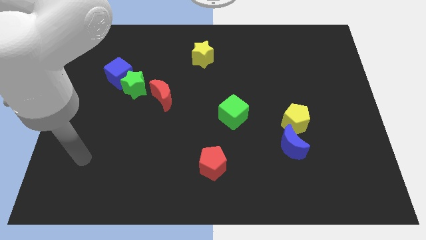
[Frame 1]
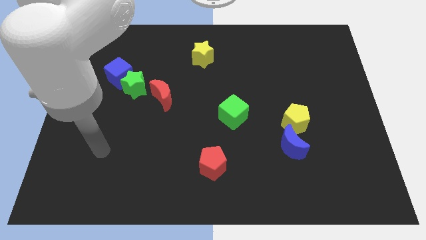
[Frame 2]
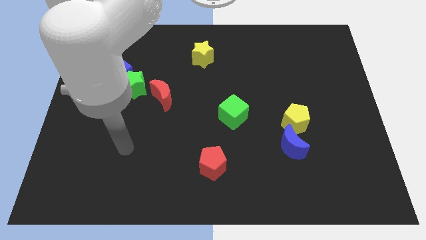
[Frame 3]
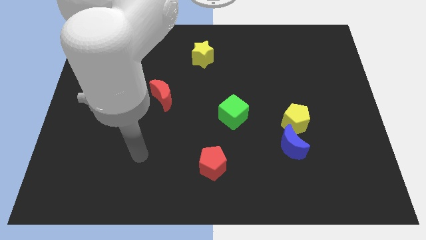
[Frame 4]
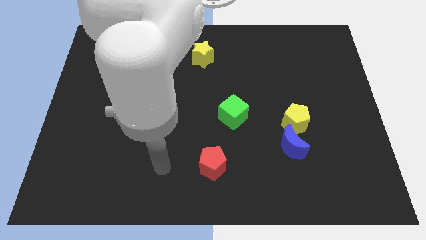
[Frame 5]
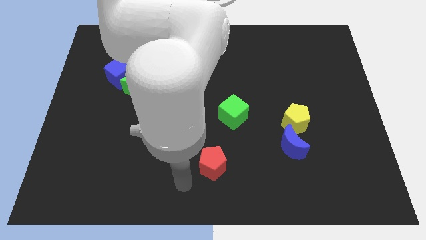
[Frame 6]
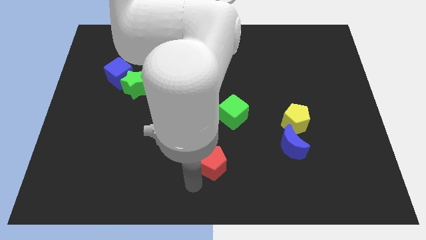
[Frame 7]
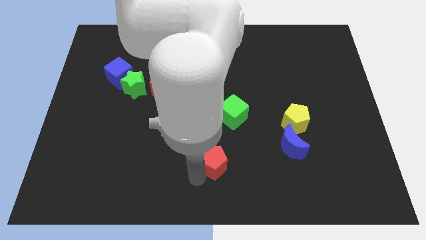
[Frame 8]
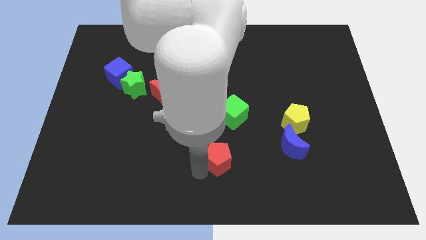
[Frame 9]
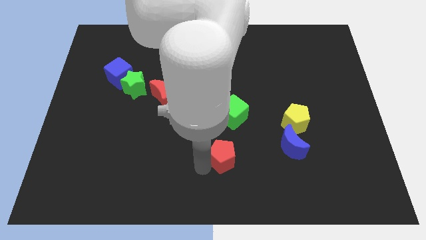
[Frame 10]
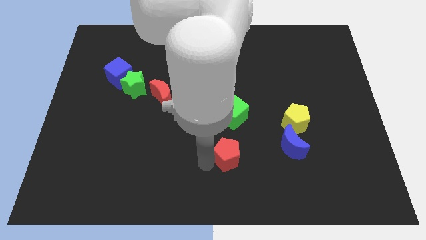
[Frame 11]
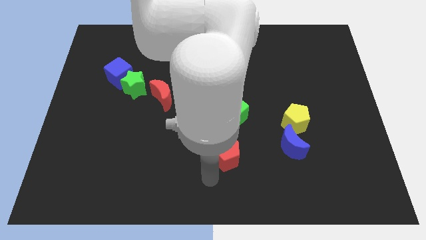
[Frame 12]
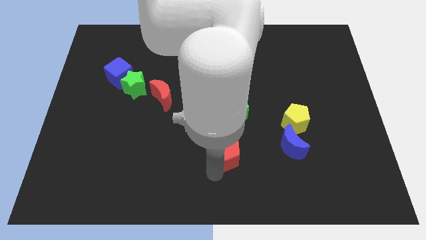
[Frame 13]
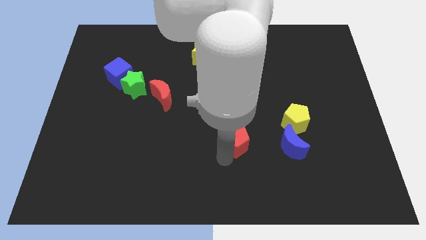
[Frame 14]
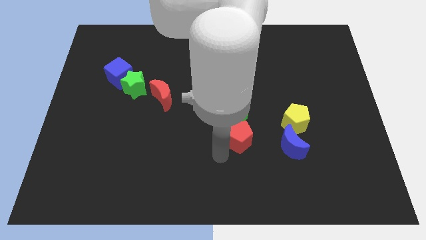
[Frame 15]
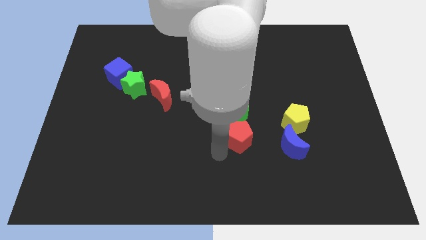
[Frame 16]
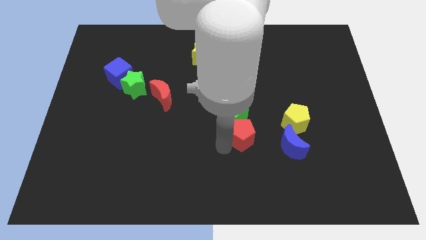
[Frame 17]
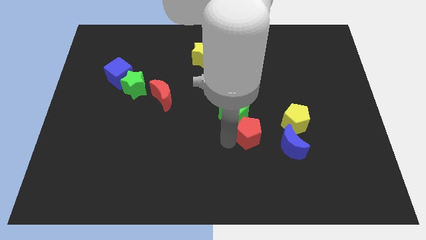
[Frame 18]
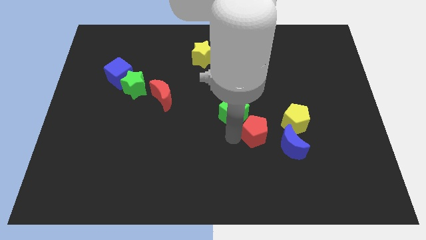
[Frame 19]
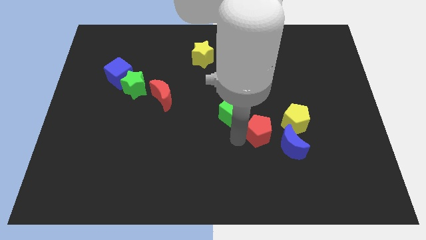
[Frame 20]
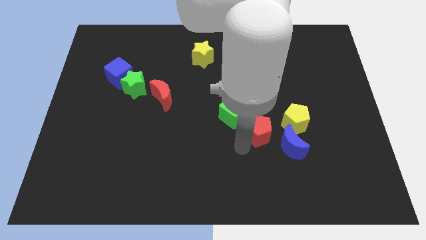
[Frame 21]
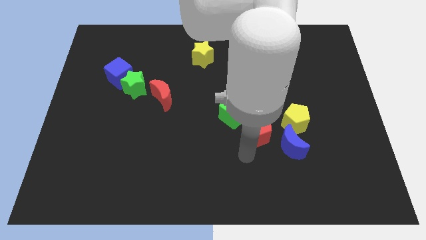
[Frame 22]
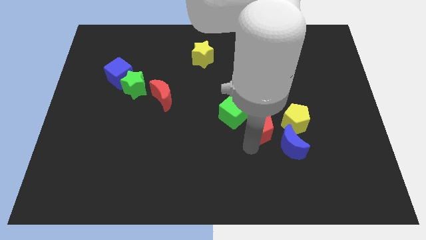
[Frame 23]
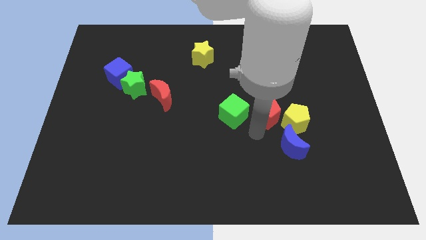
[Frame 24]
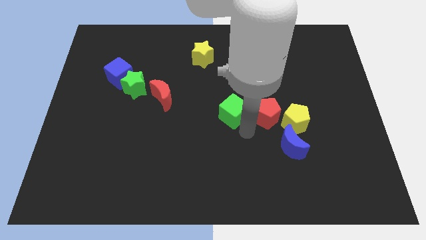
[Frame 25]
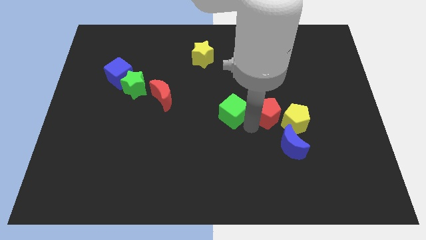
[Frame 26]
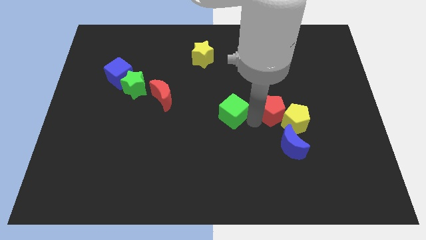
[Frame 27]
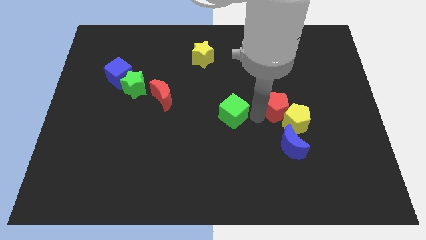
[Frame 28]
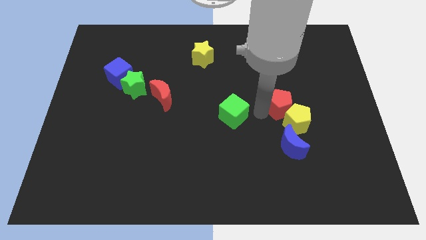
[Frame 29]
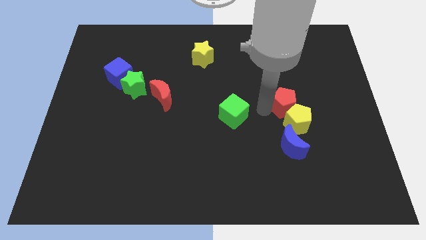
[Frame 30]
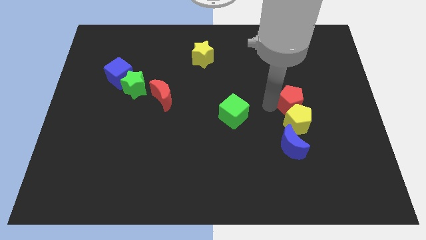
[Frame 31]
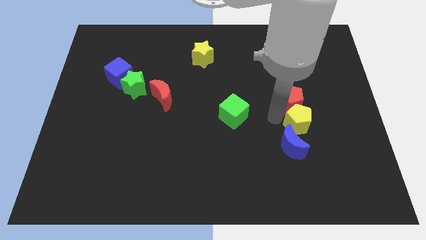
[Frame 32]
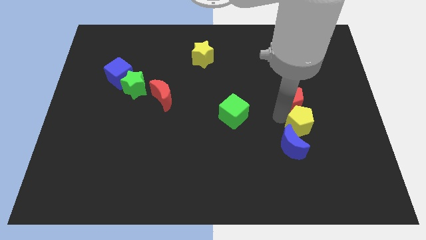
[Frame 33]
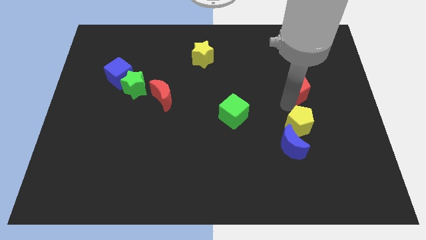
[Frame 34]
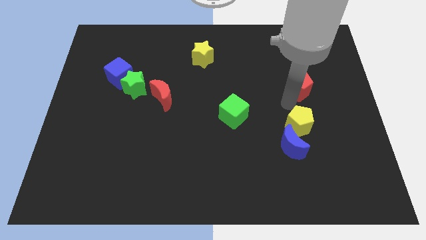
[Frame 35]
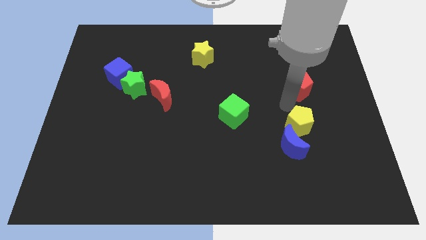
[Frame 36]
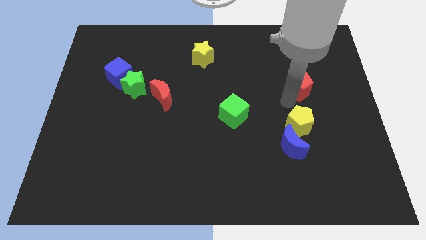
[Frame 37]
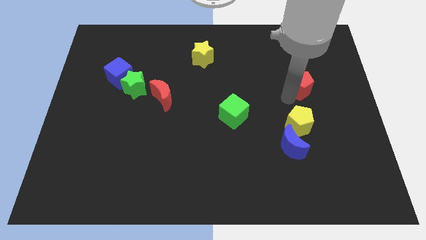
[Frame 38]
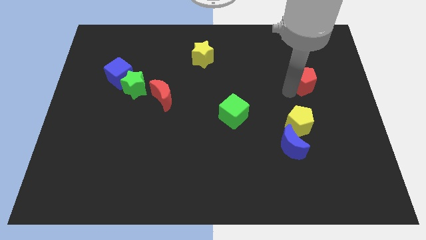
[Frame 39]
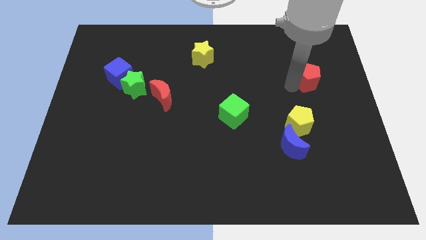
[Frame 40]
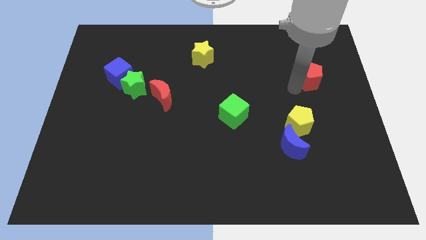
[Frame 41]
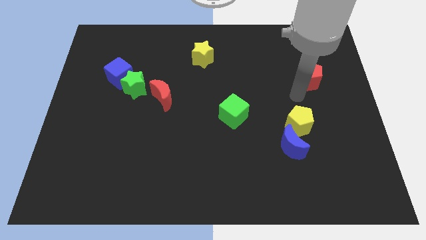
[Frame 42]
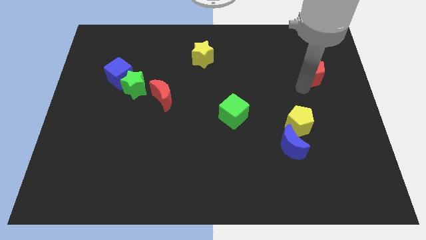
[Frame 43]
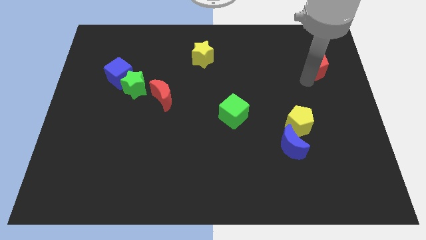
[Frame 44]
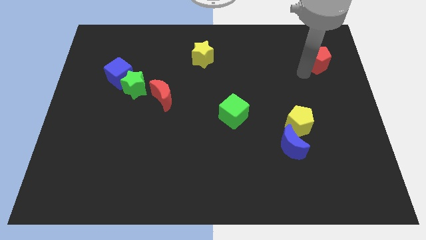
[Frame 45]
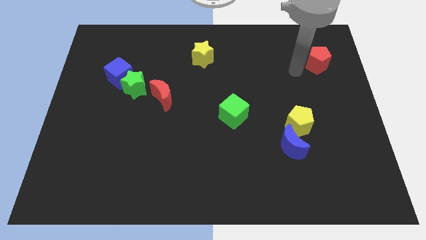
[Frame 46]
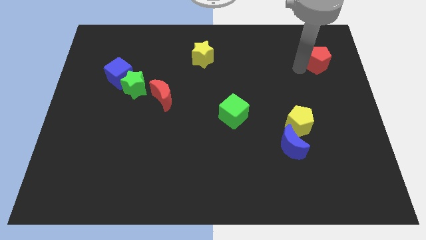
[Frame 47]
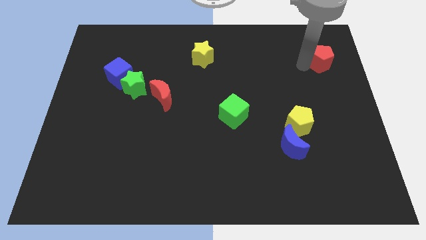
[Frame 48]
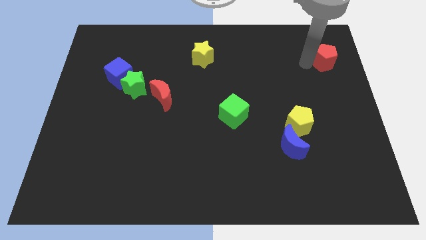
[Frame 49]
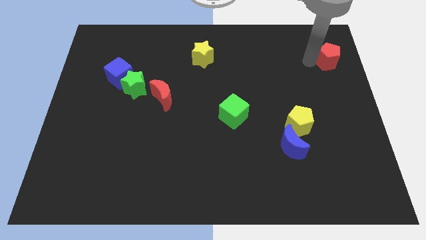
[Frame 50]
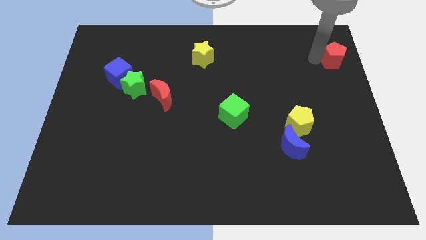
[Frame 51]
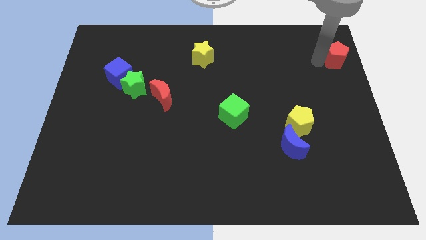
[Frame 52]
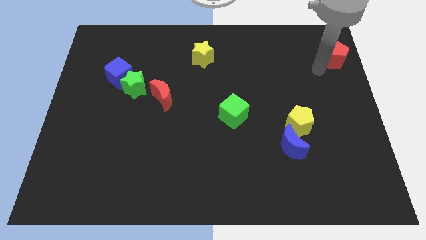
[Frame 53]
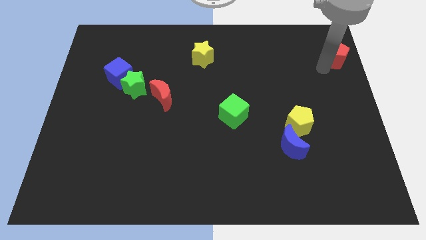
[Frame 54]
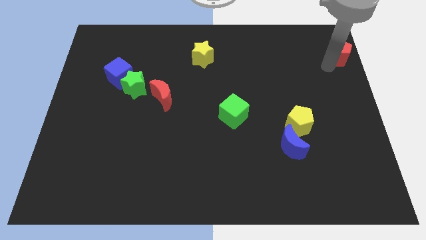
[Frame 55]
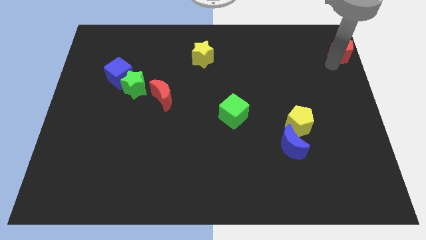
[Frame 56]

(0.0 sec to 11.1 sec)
move the red pentagon to the upper right corner

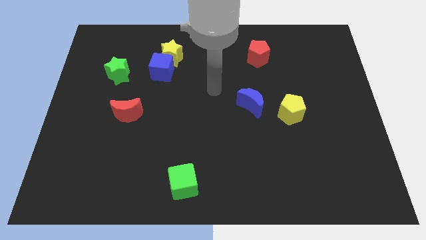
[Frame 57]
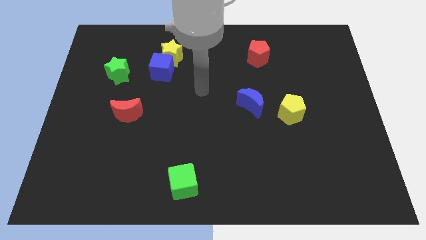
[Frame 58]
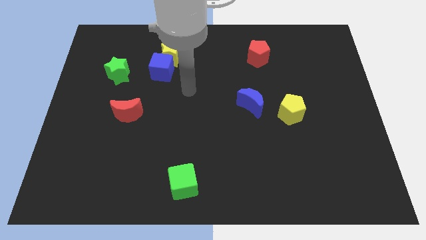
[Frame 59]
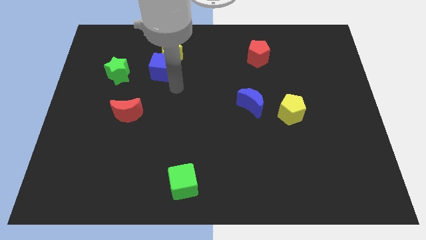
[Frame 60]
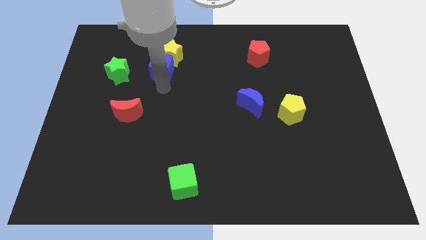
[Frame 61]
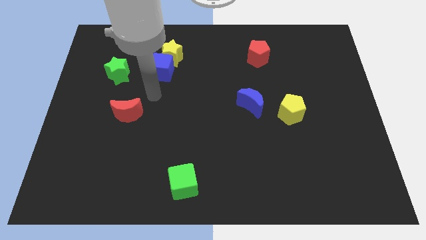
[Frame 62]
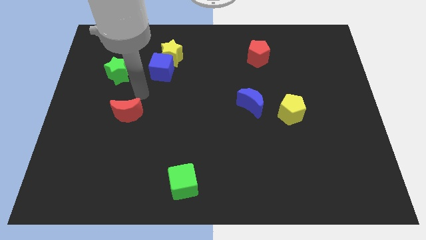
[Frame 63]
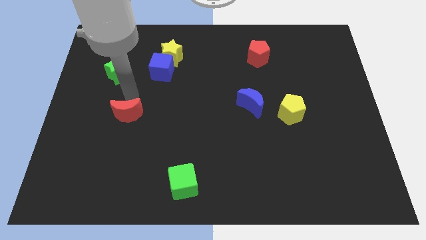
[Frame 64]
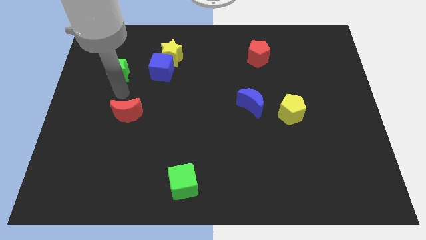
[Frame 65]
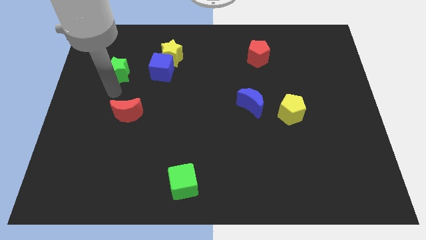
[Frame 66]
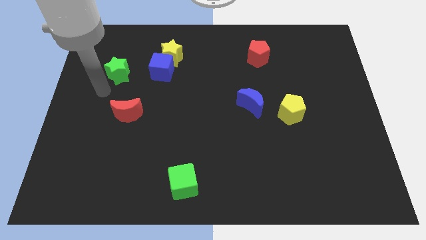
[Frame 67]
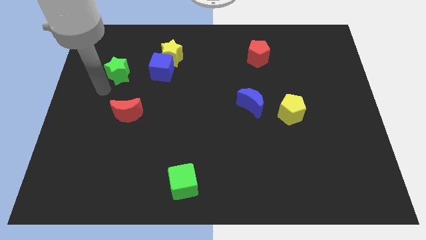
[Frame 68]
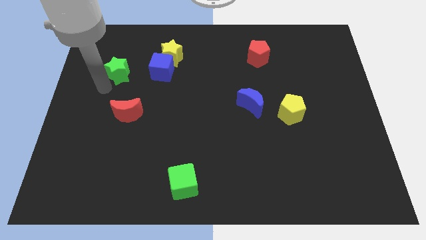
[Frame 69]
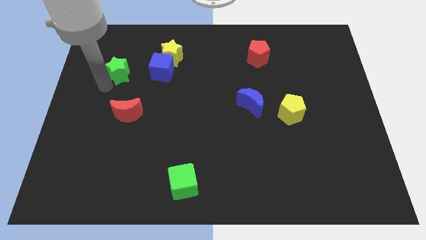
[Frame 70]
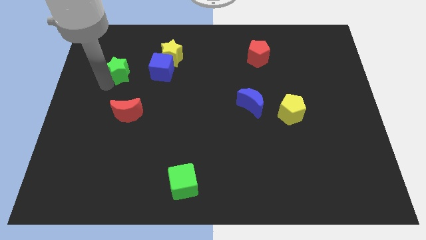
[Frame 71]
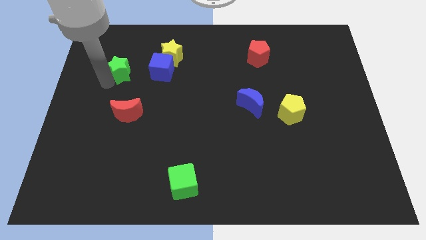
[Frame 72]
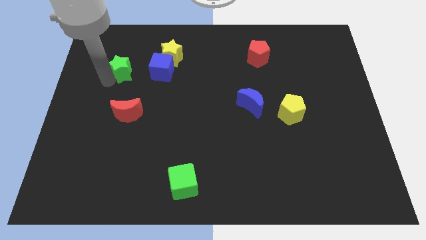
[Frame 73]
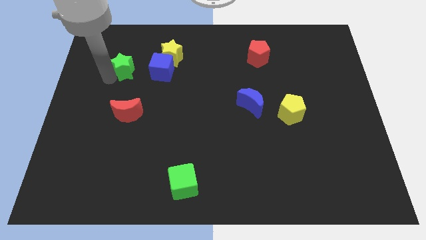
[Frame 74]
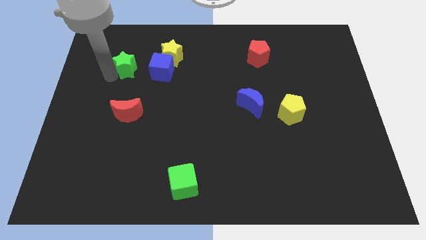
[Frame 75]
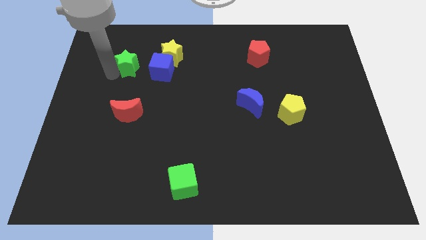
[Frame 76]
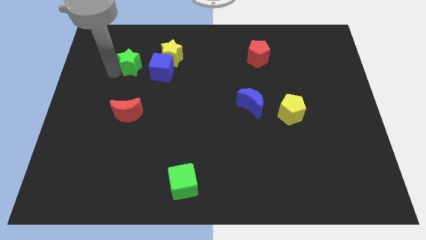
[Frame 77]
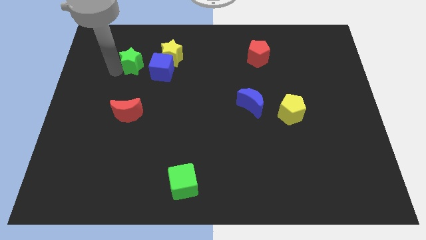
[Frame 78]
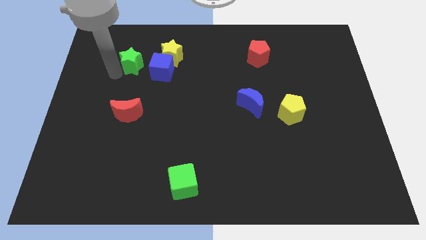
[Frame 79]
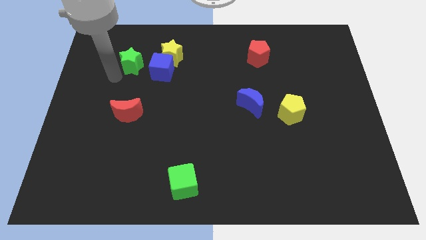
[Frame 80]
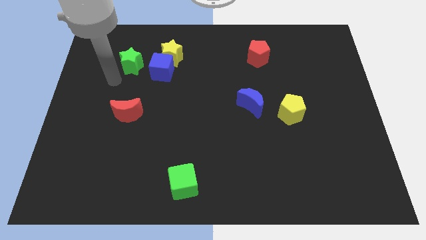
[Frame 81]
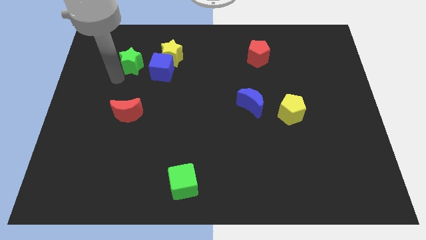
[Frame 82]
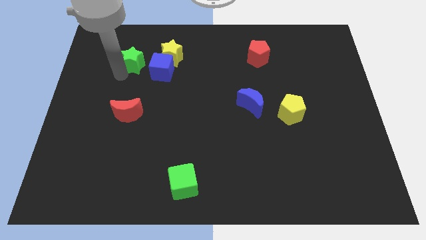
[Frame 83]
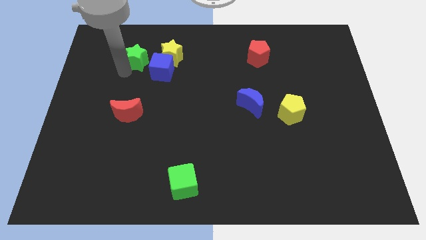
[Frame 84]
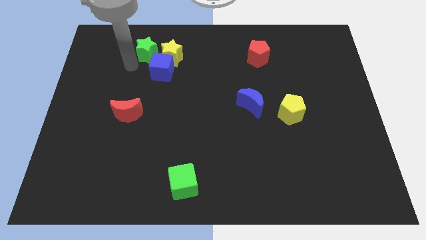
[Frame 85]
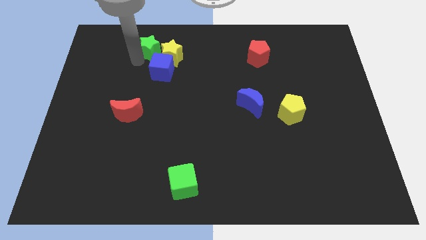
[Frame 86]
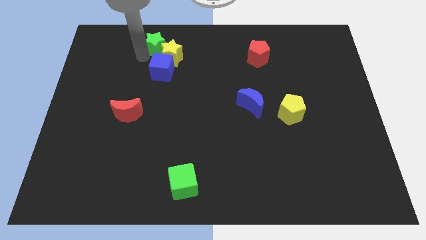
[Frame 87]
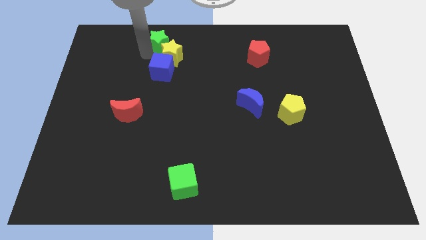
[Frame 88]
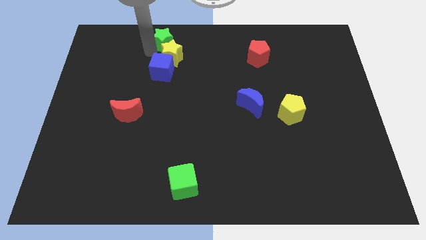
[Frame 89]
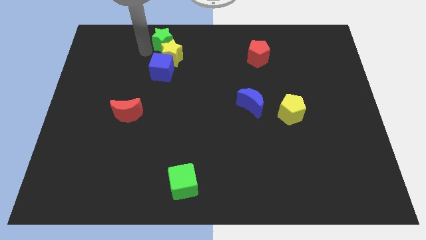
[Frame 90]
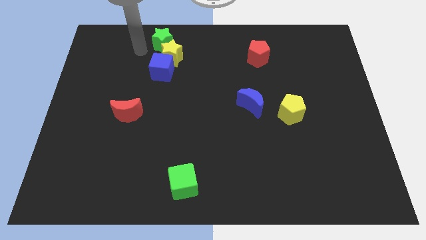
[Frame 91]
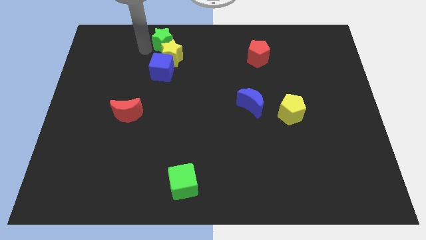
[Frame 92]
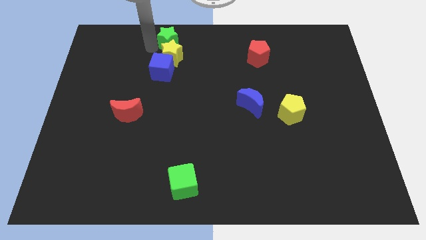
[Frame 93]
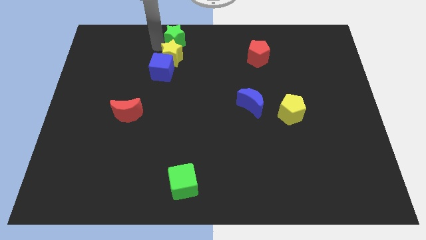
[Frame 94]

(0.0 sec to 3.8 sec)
put the green star to the towards your base
